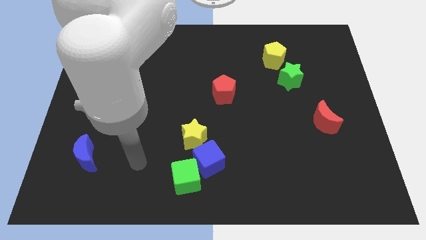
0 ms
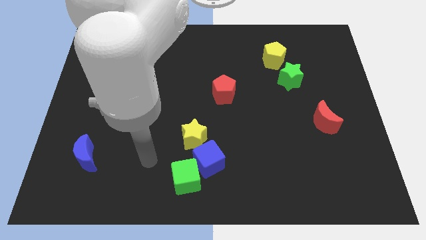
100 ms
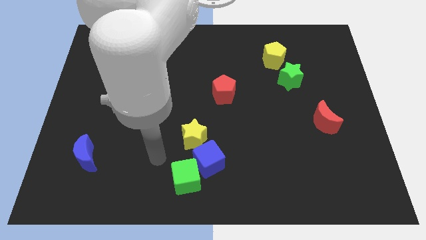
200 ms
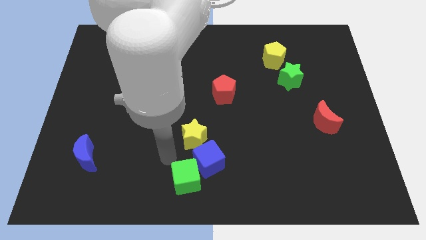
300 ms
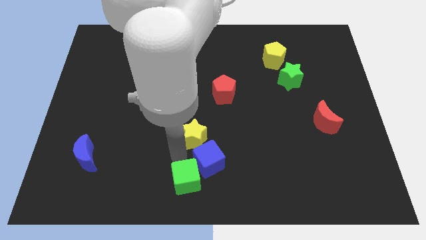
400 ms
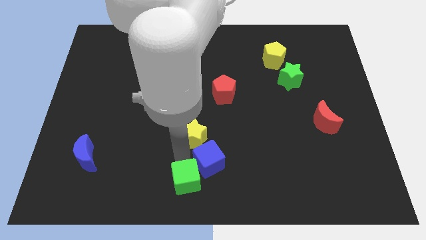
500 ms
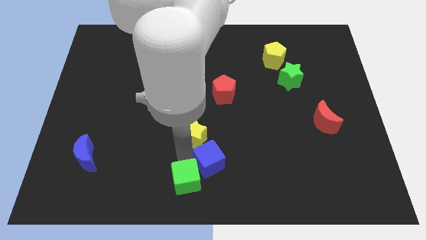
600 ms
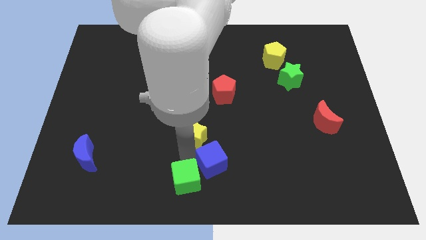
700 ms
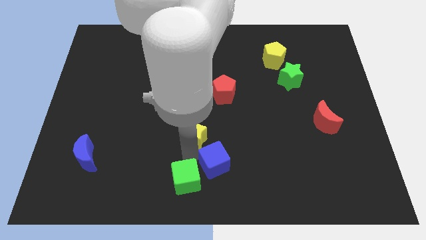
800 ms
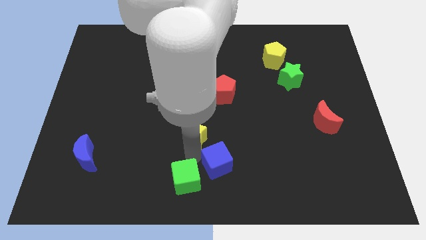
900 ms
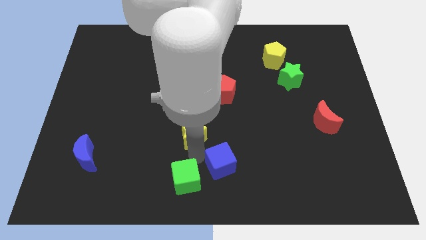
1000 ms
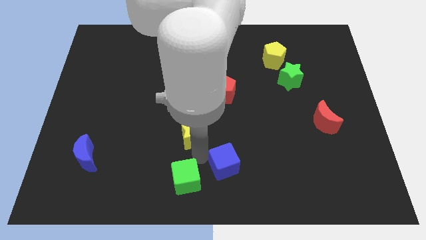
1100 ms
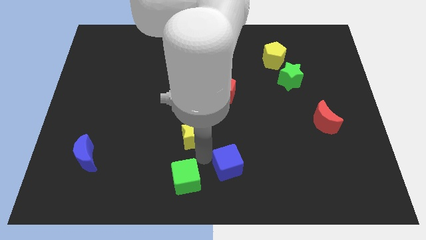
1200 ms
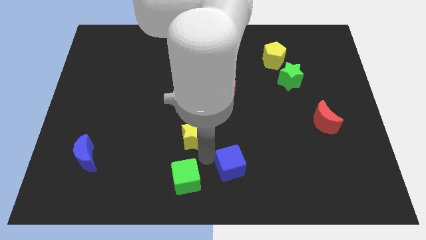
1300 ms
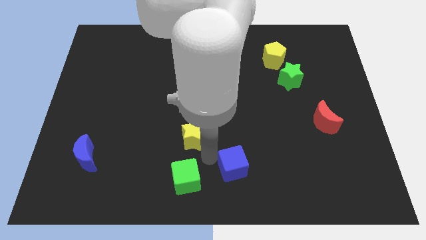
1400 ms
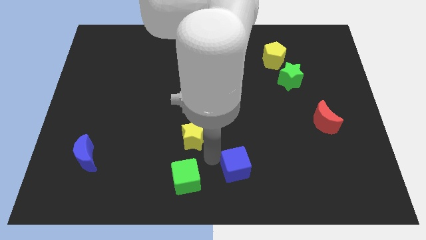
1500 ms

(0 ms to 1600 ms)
separate the blue cube from the green cube and yellow star

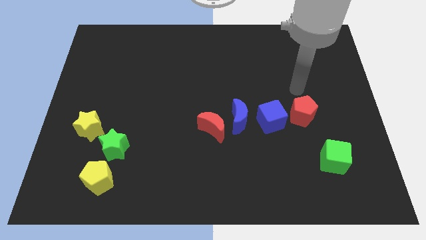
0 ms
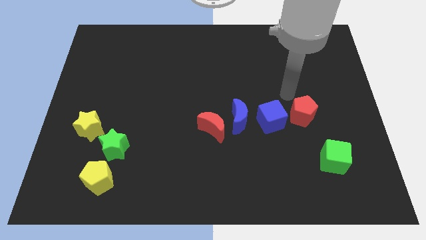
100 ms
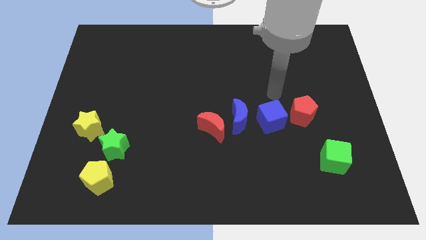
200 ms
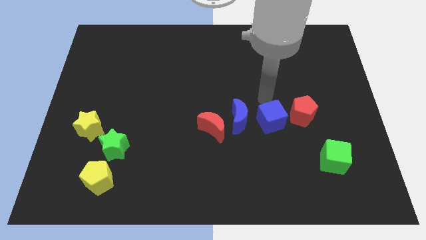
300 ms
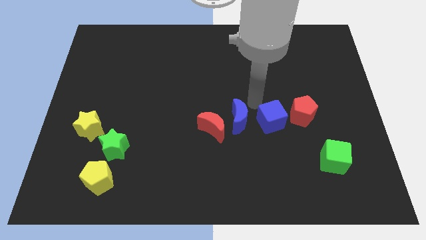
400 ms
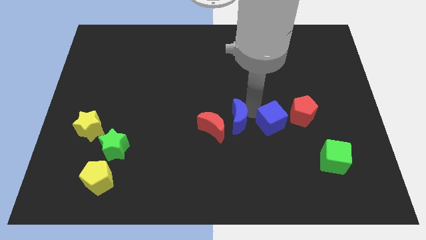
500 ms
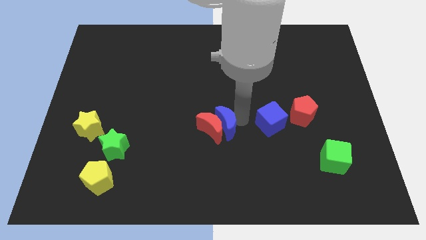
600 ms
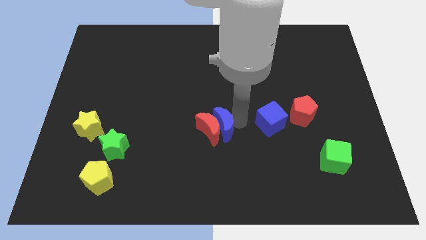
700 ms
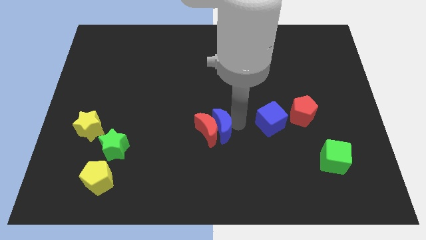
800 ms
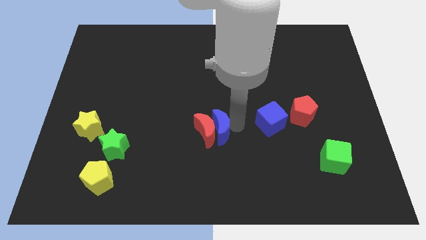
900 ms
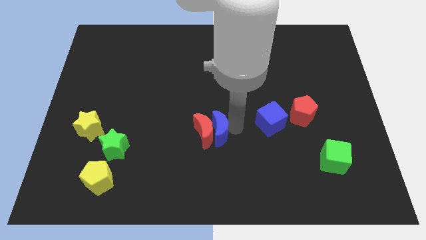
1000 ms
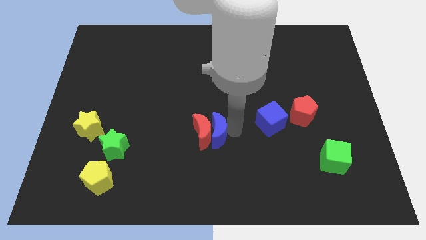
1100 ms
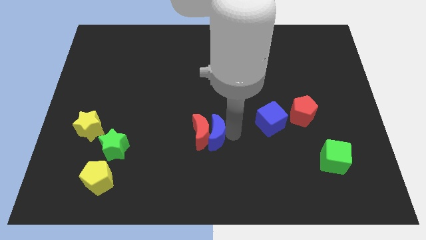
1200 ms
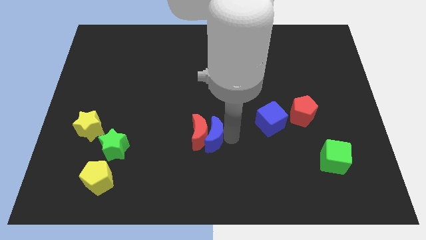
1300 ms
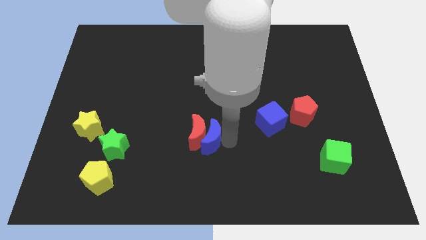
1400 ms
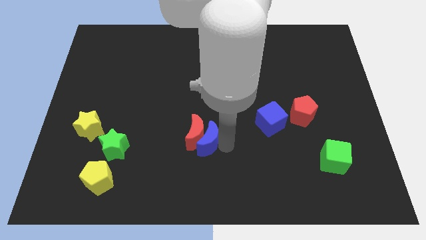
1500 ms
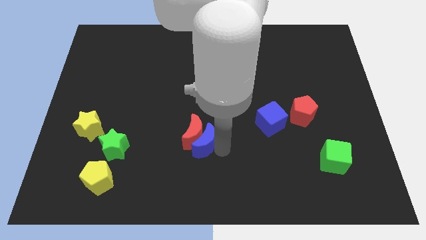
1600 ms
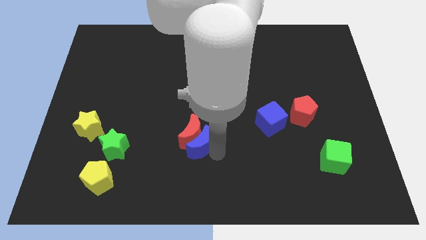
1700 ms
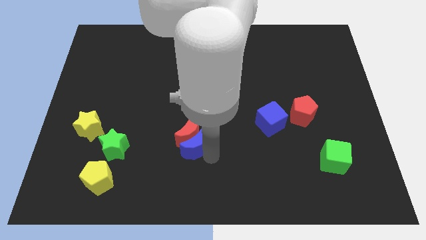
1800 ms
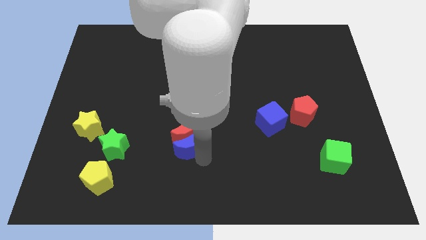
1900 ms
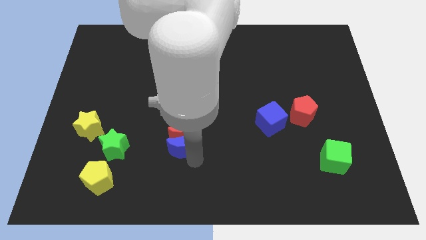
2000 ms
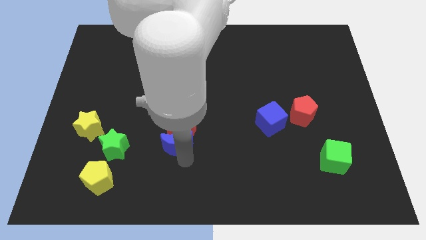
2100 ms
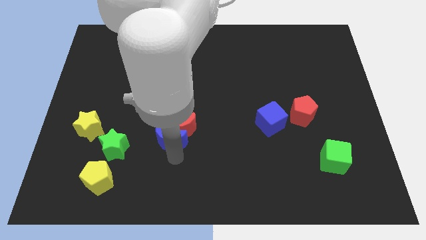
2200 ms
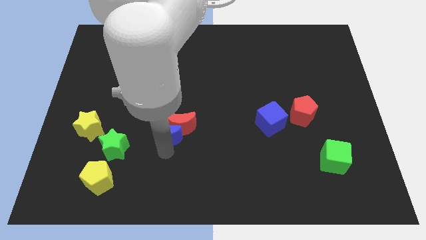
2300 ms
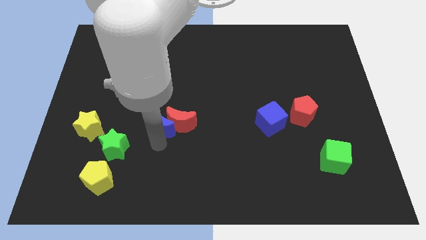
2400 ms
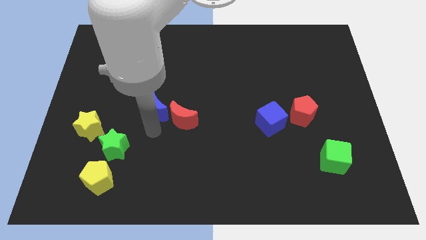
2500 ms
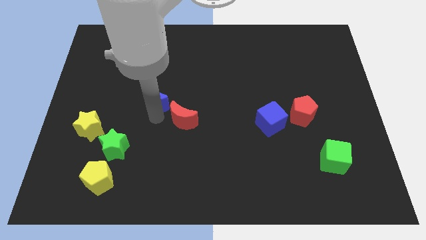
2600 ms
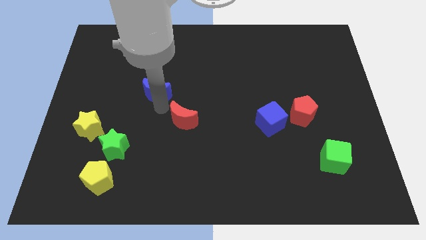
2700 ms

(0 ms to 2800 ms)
separate the red moon from the blue moon

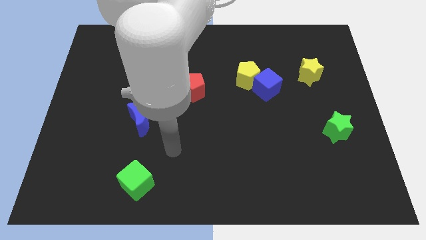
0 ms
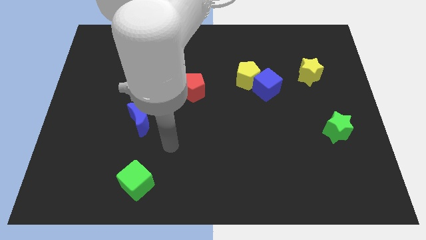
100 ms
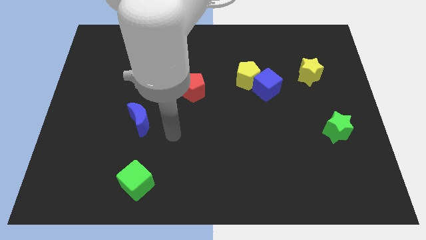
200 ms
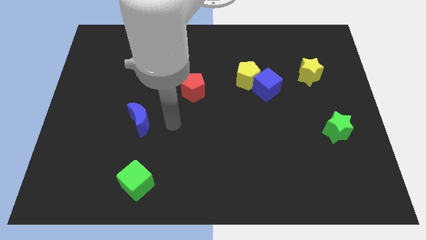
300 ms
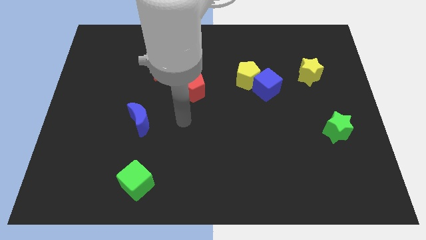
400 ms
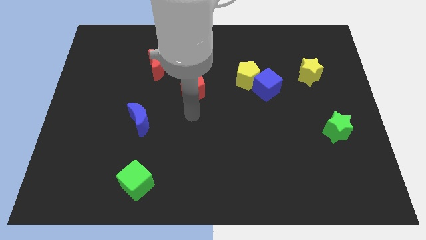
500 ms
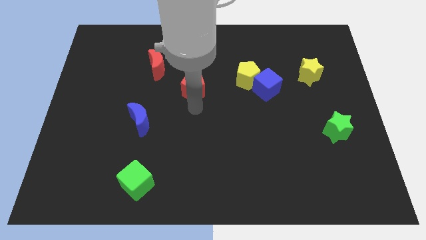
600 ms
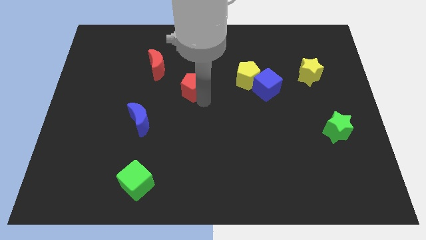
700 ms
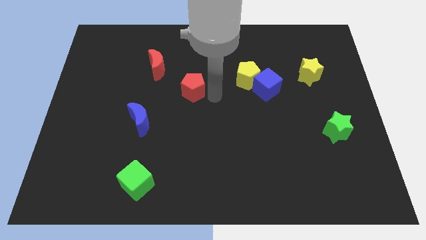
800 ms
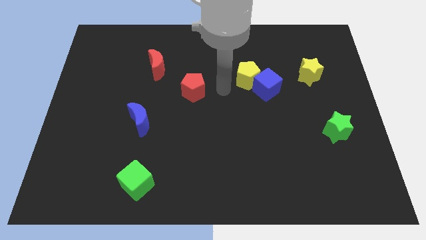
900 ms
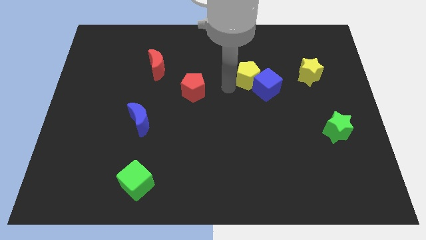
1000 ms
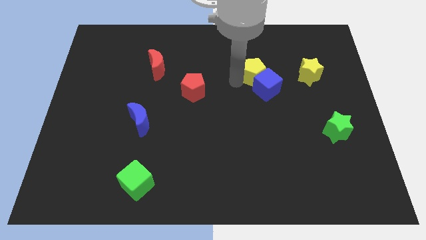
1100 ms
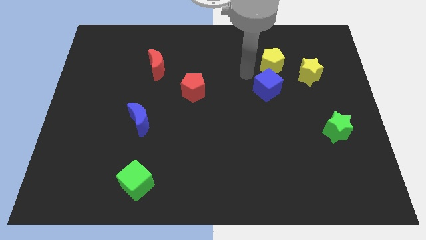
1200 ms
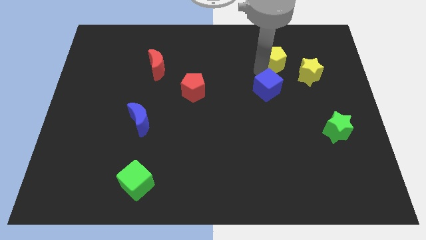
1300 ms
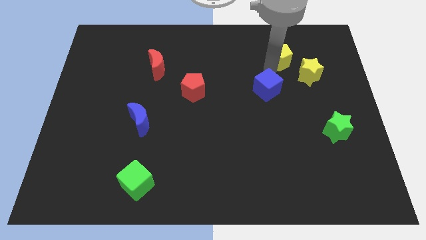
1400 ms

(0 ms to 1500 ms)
separate the blue cube from the yellow pentagon

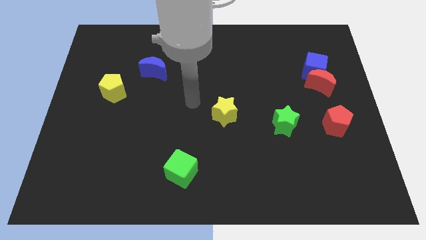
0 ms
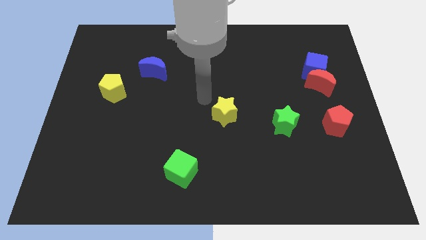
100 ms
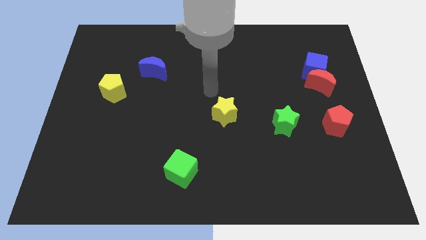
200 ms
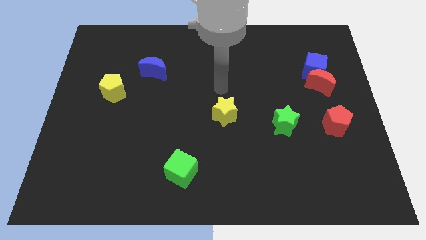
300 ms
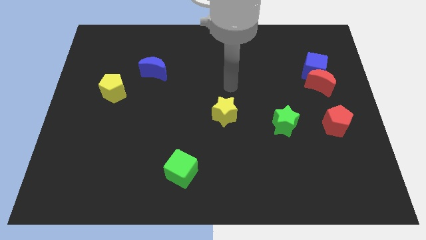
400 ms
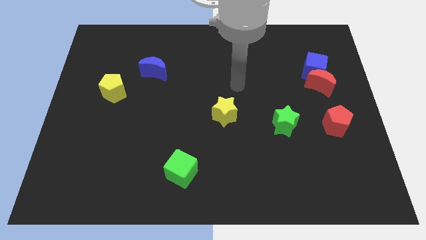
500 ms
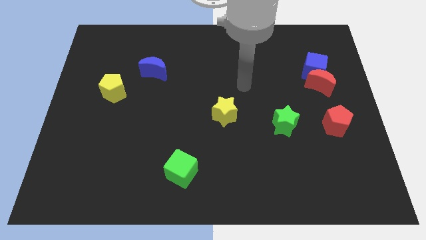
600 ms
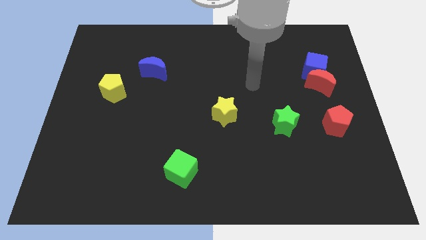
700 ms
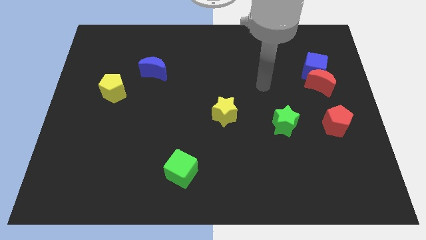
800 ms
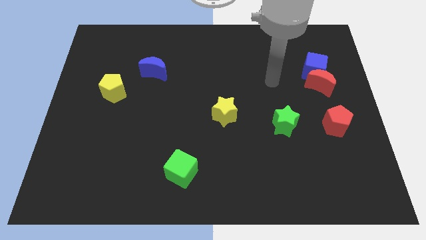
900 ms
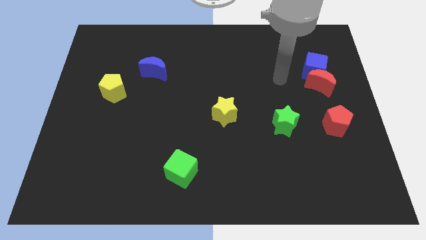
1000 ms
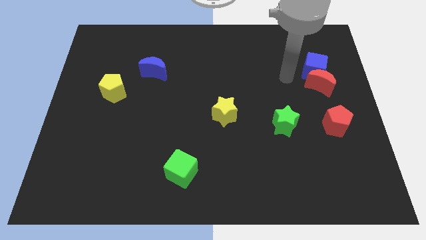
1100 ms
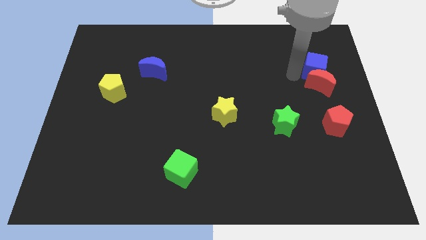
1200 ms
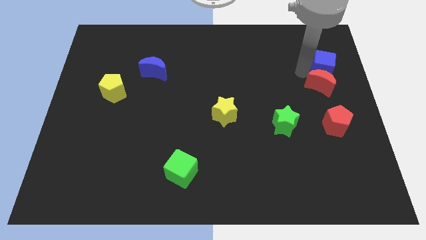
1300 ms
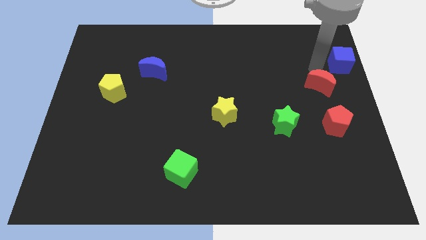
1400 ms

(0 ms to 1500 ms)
separate the red moon from the blue cube

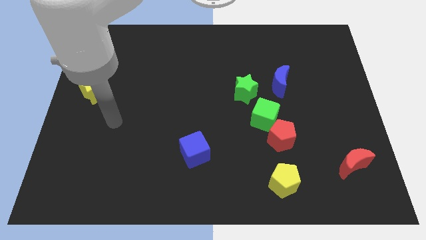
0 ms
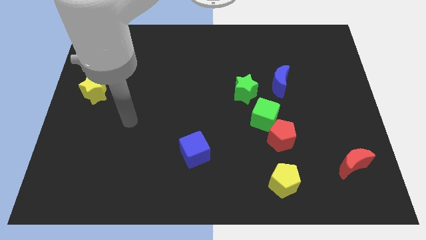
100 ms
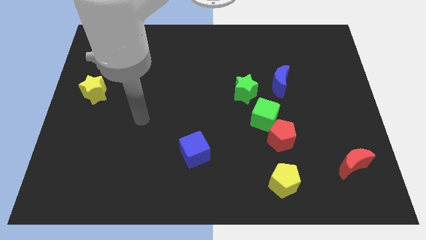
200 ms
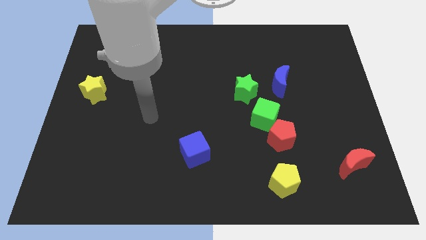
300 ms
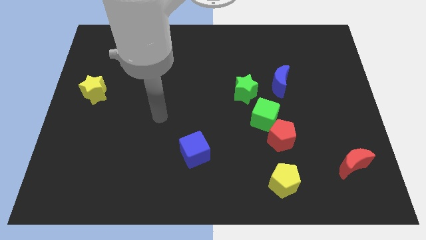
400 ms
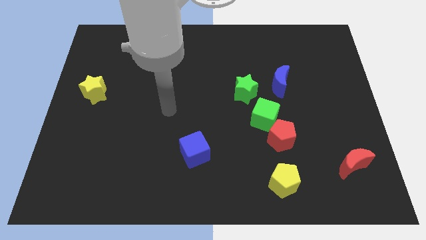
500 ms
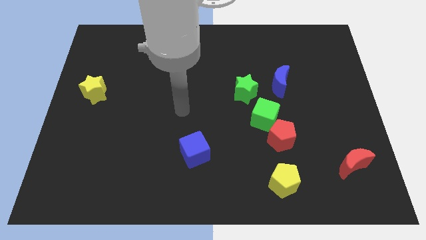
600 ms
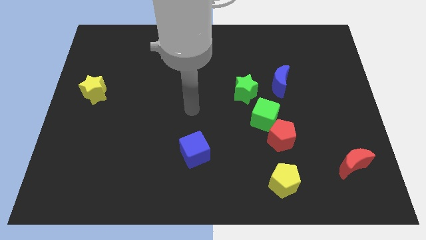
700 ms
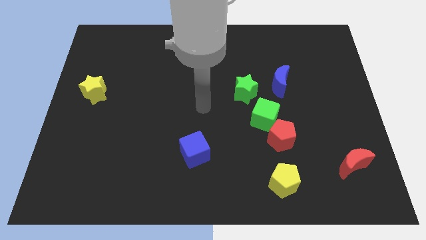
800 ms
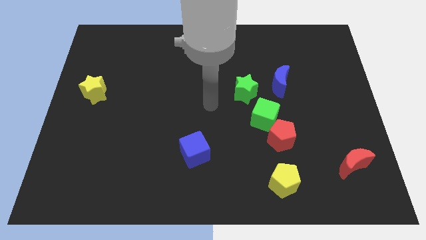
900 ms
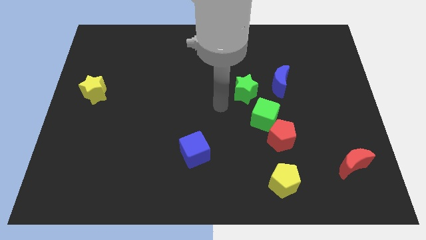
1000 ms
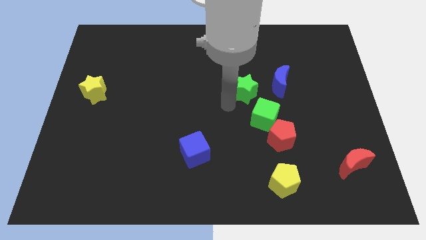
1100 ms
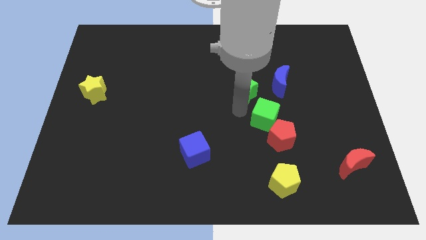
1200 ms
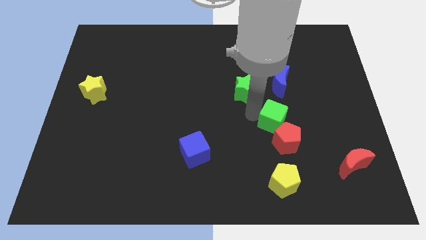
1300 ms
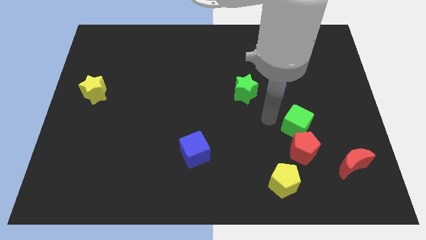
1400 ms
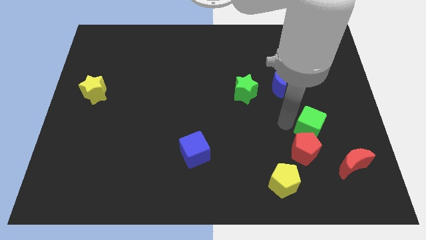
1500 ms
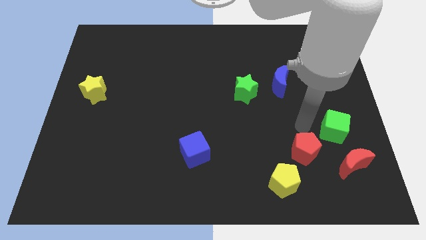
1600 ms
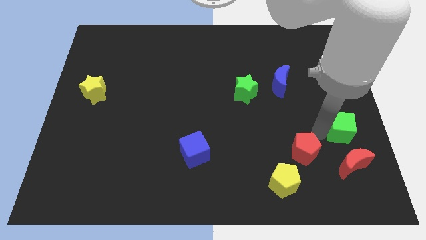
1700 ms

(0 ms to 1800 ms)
separate the red pentagon from the green cube

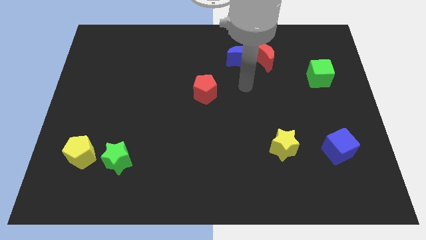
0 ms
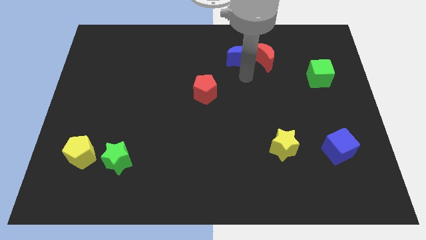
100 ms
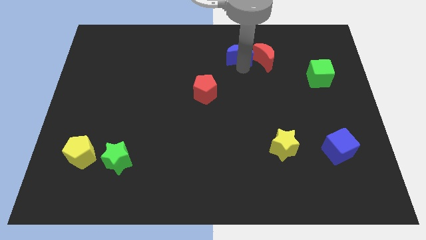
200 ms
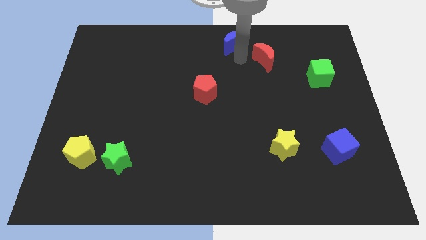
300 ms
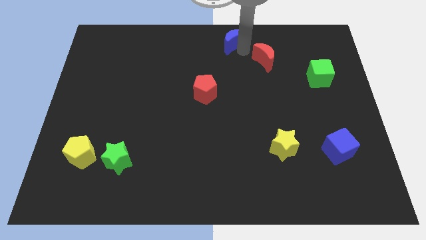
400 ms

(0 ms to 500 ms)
move the red moon away from the blue moon
